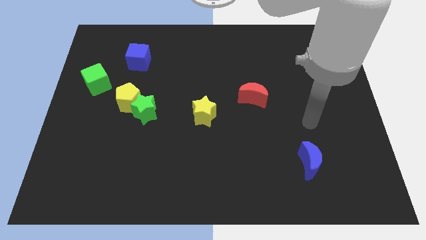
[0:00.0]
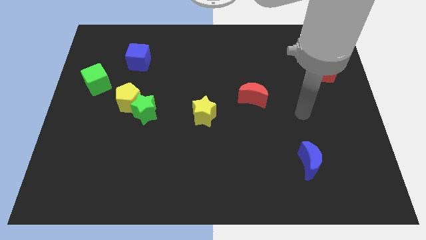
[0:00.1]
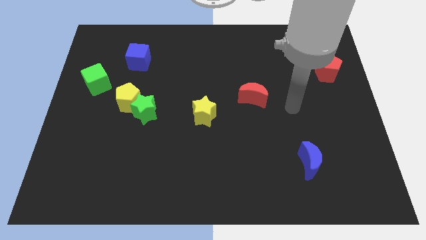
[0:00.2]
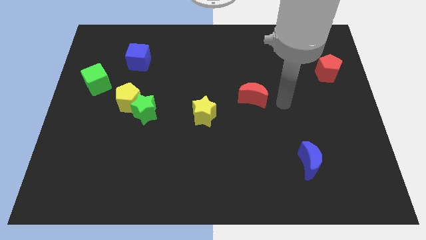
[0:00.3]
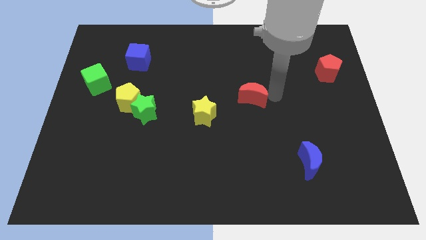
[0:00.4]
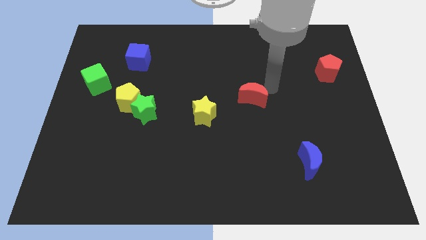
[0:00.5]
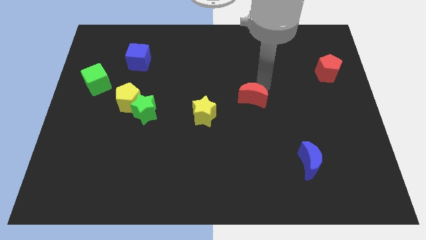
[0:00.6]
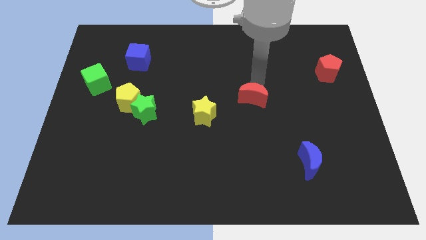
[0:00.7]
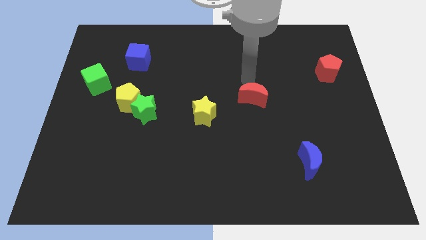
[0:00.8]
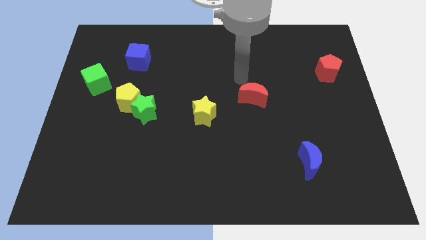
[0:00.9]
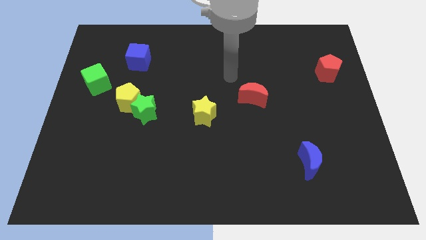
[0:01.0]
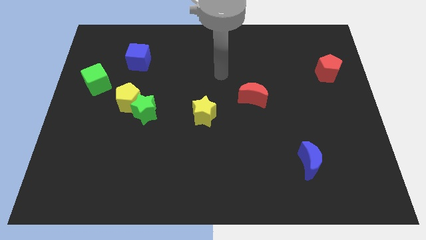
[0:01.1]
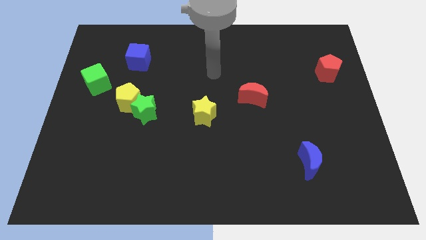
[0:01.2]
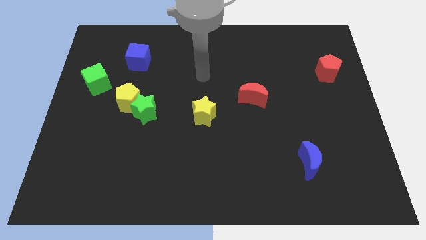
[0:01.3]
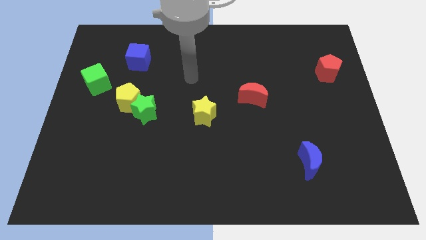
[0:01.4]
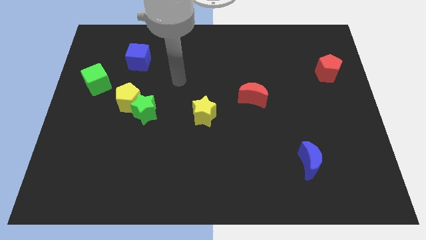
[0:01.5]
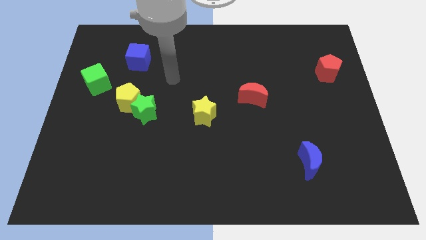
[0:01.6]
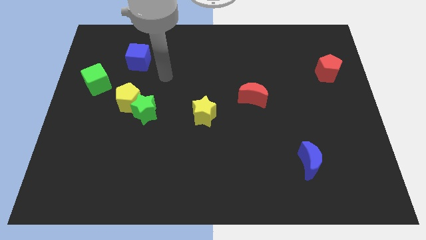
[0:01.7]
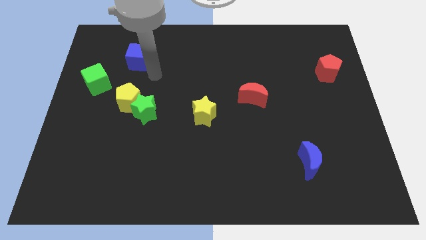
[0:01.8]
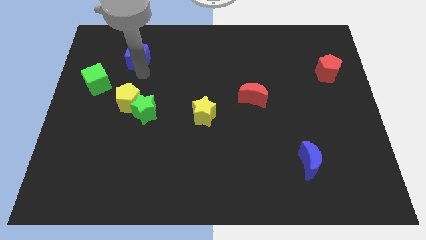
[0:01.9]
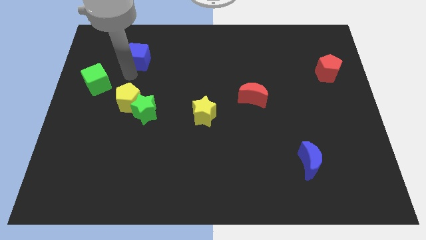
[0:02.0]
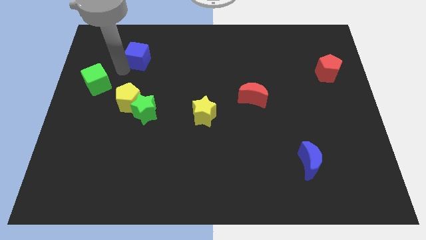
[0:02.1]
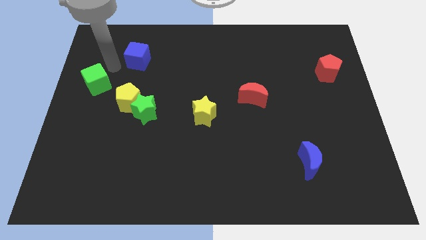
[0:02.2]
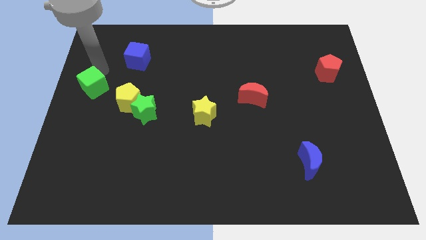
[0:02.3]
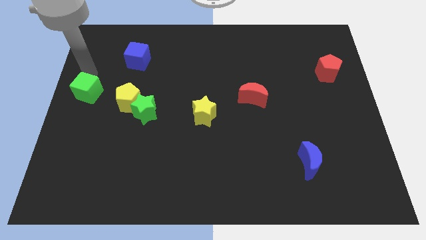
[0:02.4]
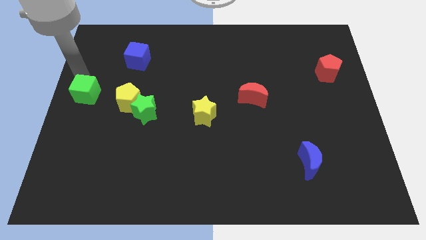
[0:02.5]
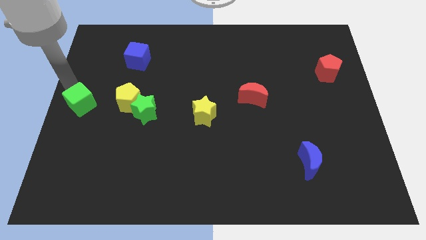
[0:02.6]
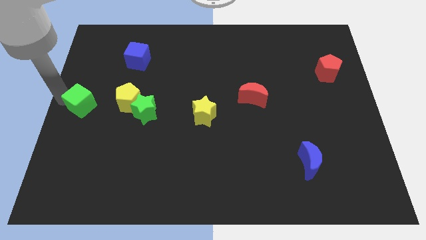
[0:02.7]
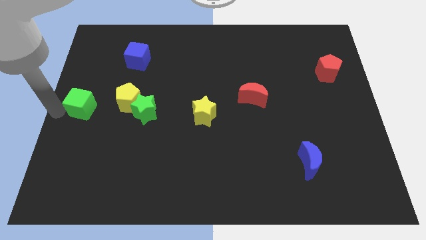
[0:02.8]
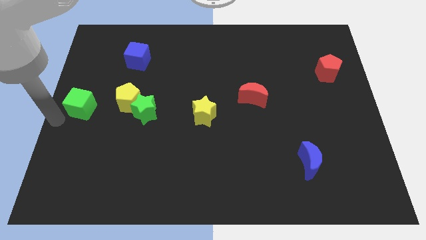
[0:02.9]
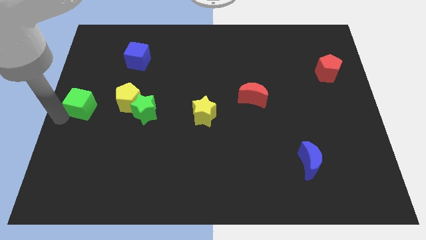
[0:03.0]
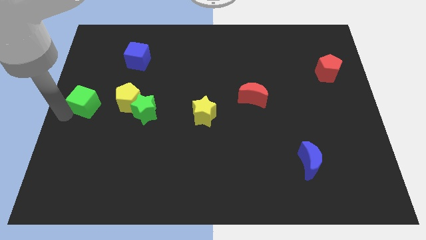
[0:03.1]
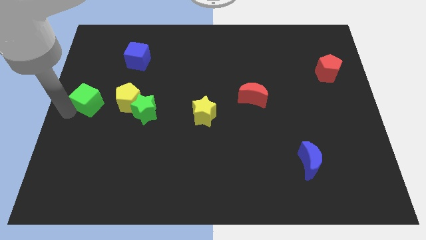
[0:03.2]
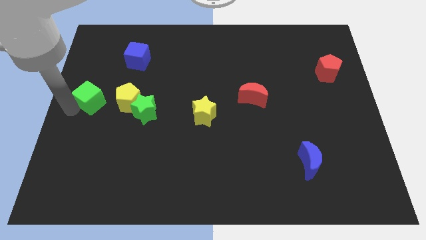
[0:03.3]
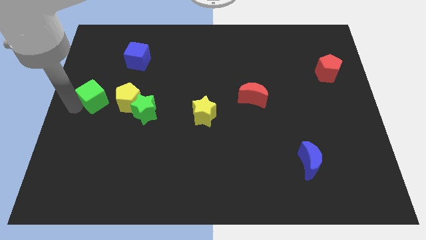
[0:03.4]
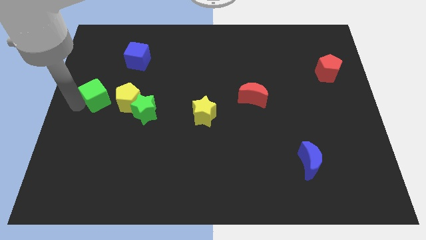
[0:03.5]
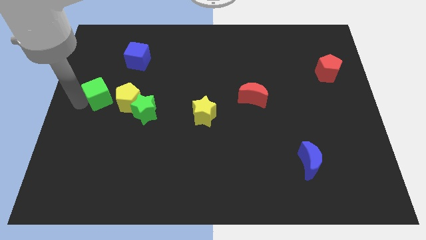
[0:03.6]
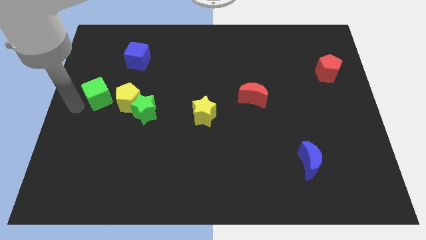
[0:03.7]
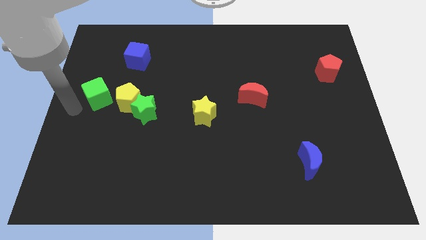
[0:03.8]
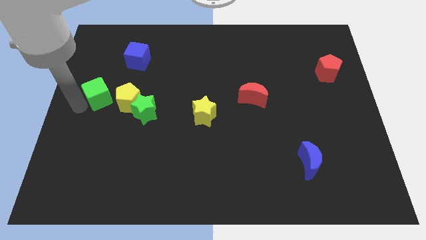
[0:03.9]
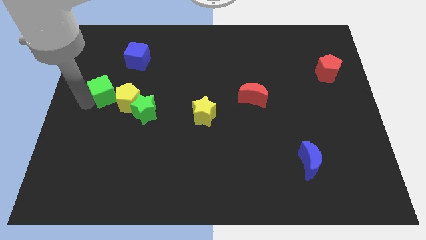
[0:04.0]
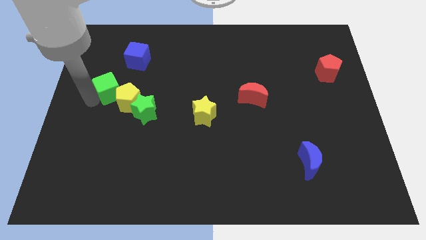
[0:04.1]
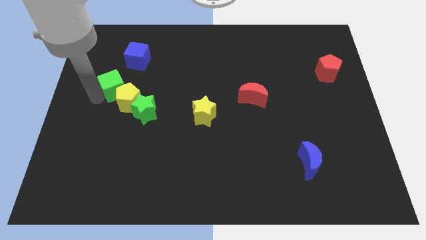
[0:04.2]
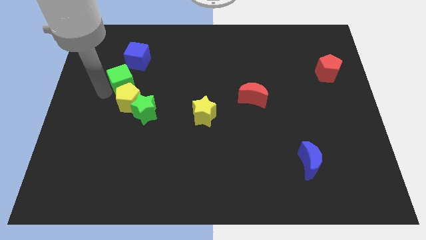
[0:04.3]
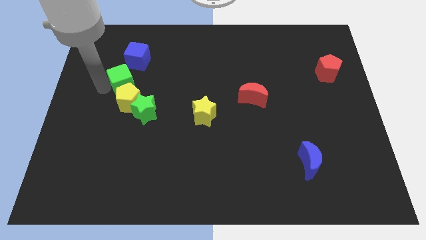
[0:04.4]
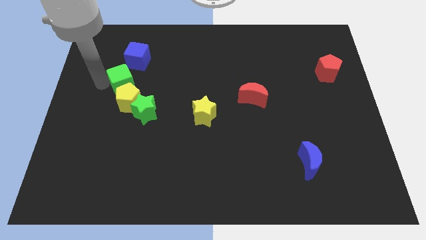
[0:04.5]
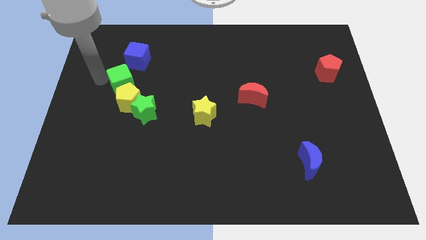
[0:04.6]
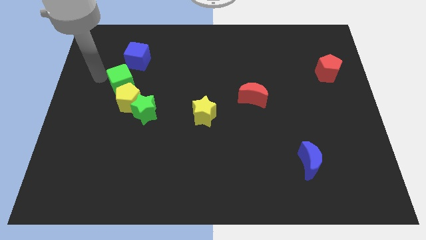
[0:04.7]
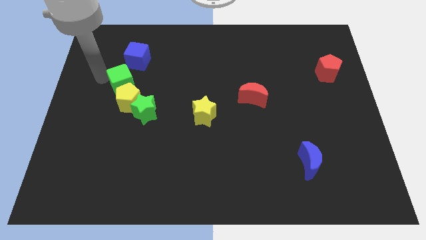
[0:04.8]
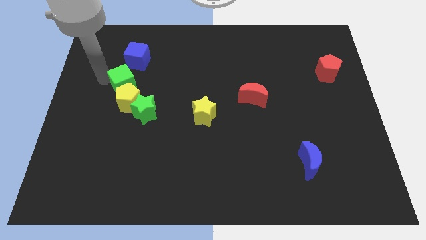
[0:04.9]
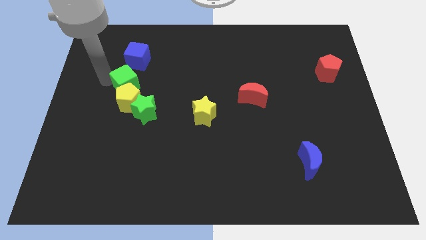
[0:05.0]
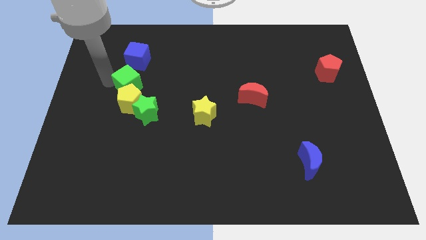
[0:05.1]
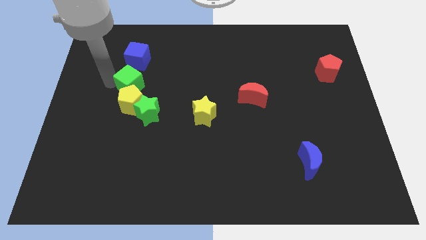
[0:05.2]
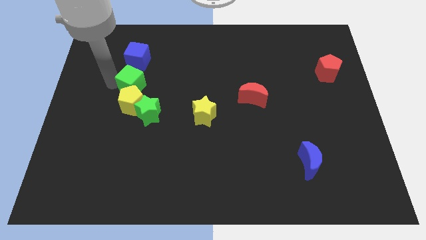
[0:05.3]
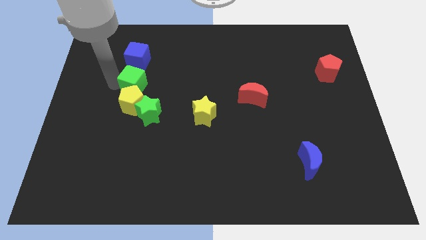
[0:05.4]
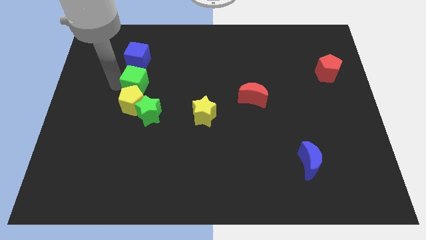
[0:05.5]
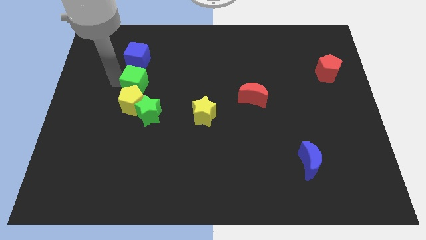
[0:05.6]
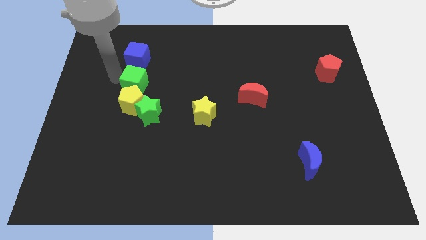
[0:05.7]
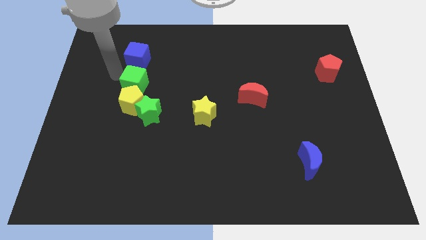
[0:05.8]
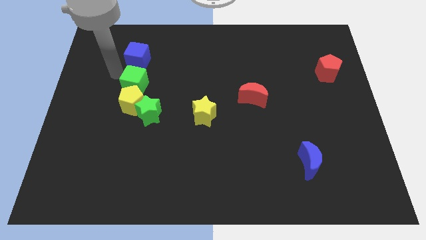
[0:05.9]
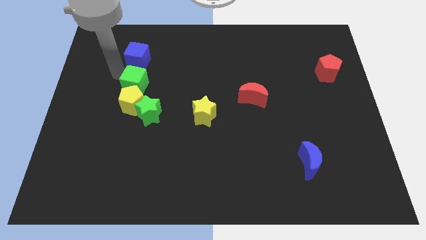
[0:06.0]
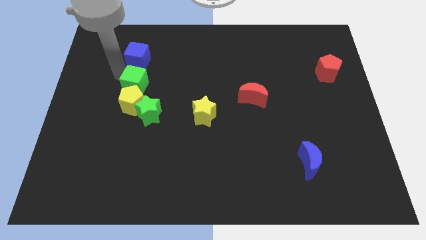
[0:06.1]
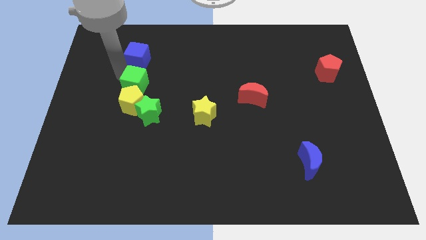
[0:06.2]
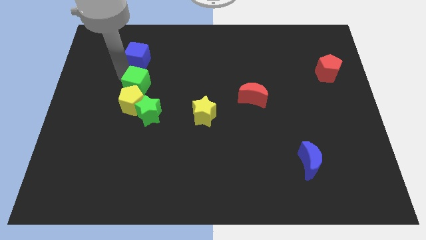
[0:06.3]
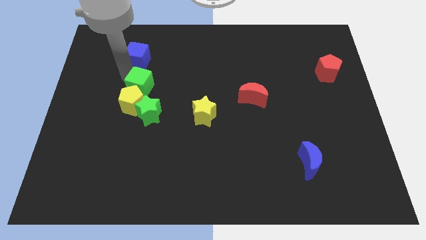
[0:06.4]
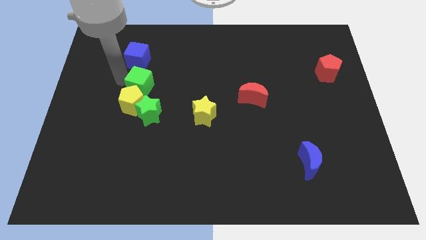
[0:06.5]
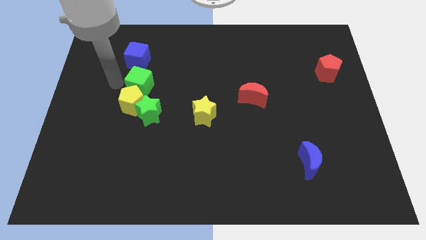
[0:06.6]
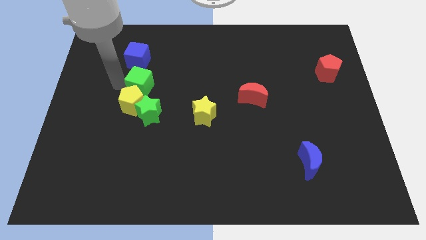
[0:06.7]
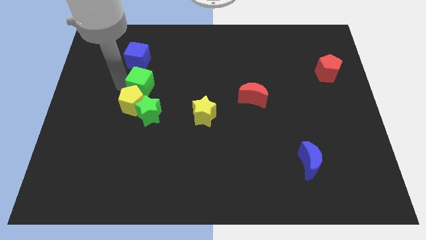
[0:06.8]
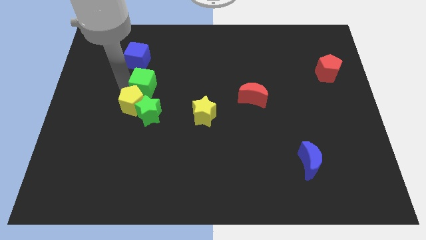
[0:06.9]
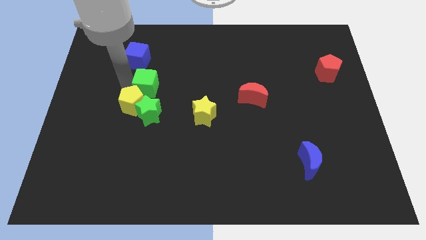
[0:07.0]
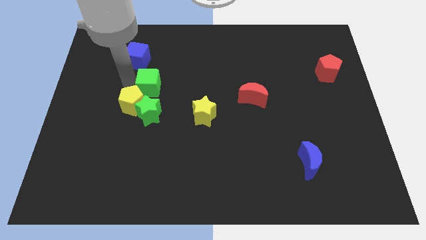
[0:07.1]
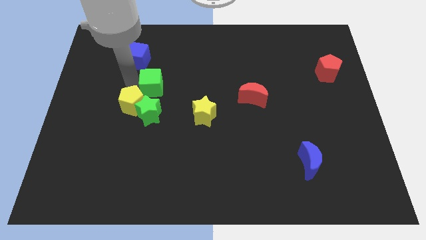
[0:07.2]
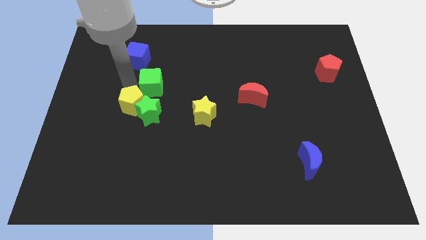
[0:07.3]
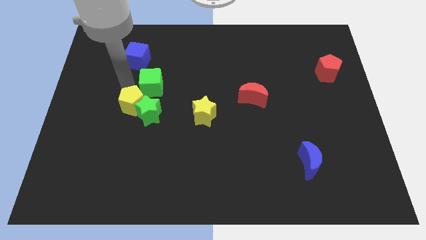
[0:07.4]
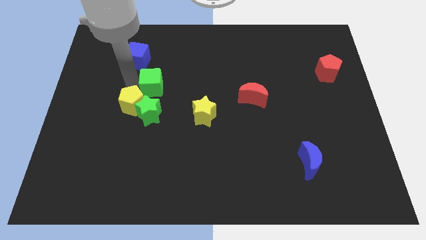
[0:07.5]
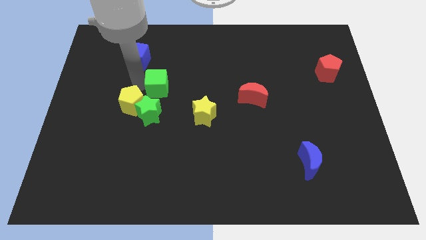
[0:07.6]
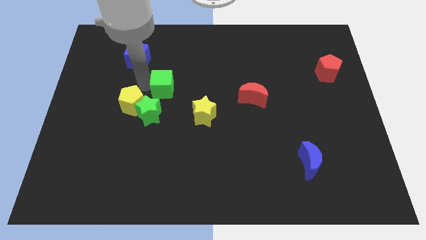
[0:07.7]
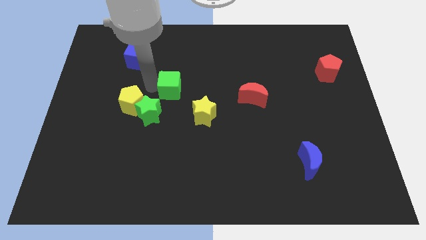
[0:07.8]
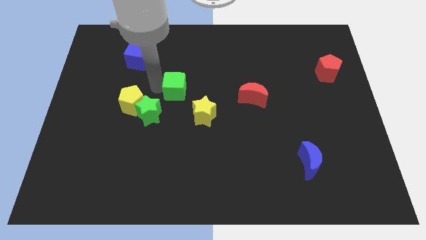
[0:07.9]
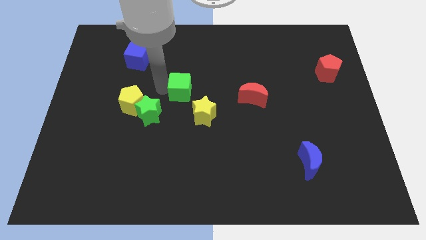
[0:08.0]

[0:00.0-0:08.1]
push the green cube right

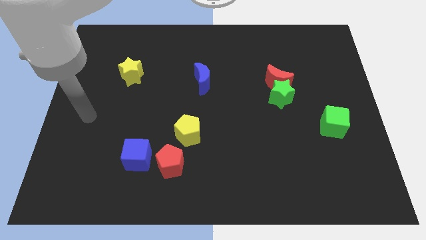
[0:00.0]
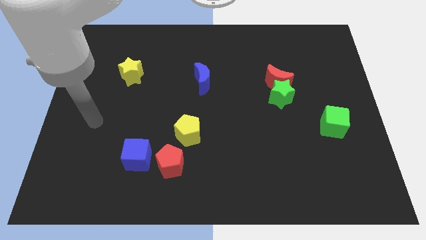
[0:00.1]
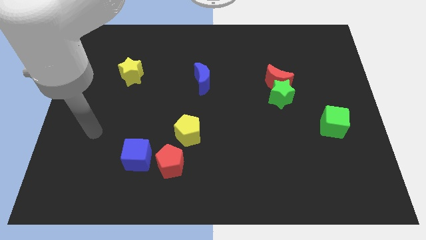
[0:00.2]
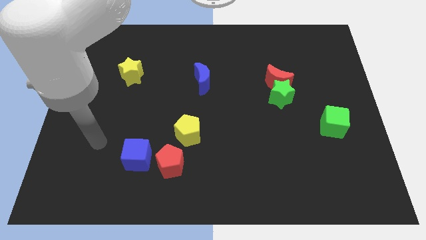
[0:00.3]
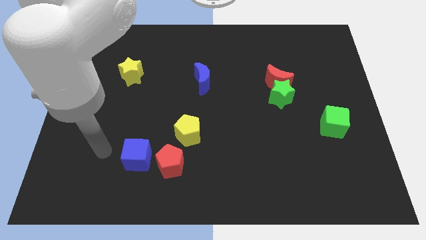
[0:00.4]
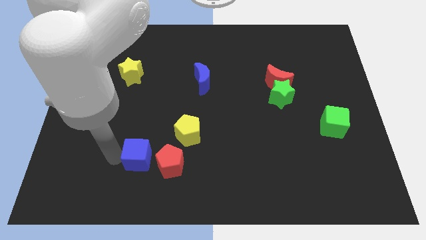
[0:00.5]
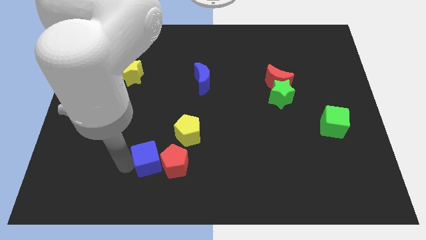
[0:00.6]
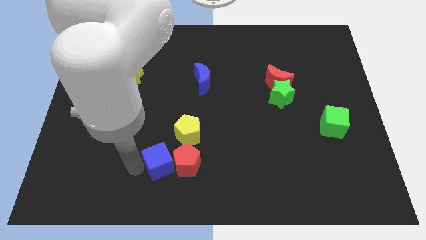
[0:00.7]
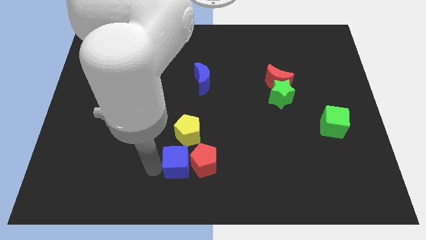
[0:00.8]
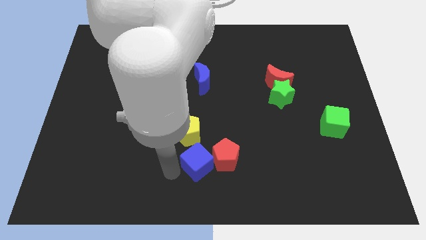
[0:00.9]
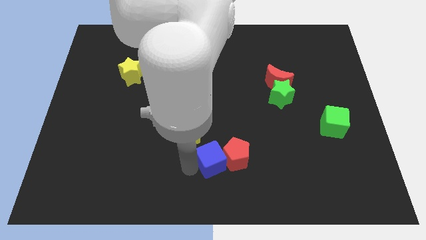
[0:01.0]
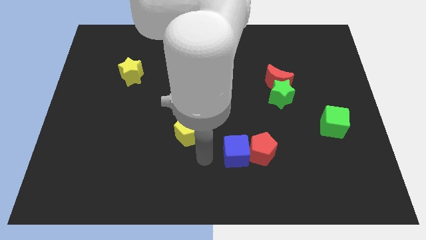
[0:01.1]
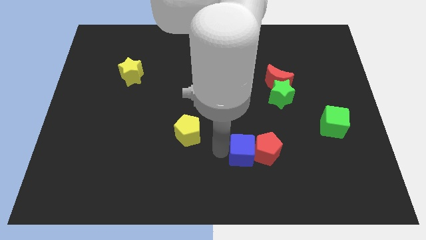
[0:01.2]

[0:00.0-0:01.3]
slide the red pentagon right
